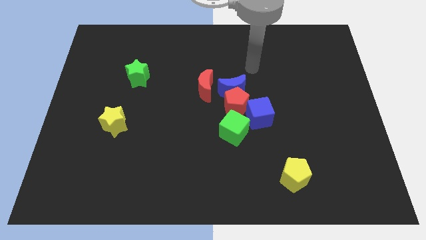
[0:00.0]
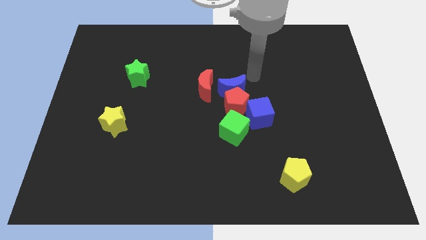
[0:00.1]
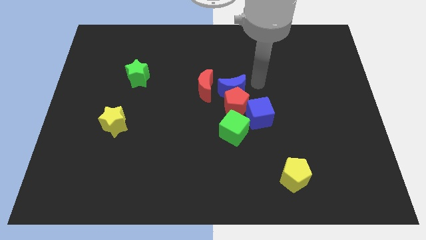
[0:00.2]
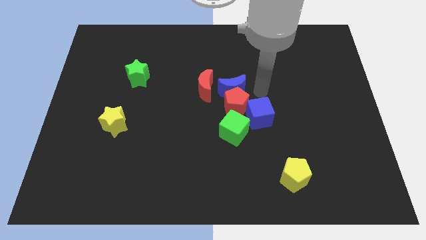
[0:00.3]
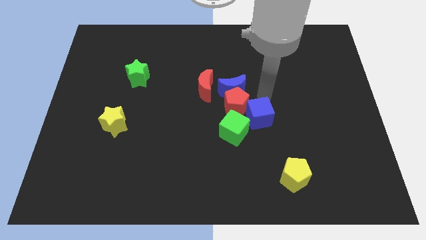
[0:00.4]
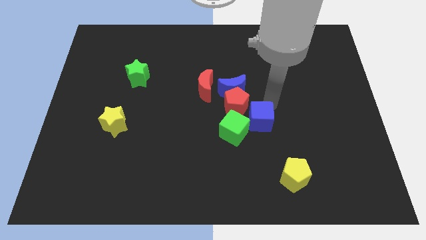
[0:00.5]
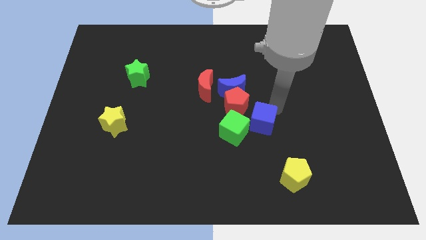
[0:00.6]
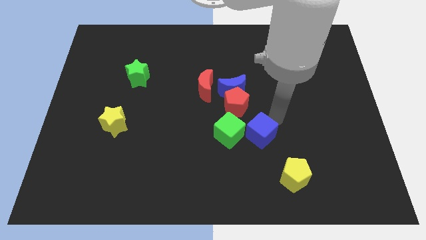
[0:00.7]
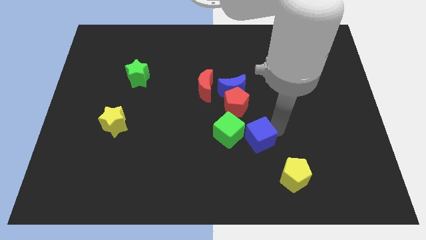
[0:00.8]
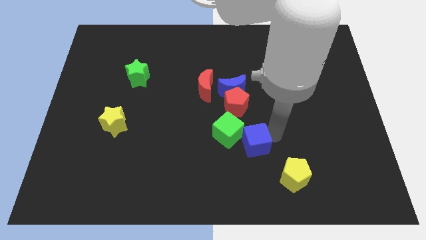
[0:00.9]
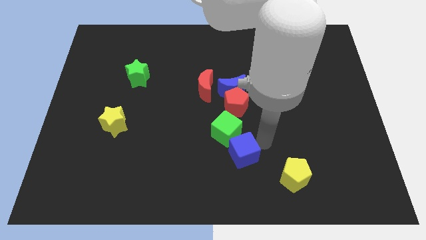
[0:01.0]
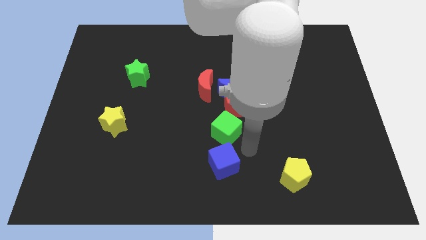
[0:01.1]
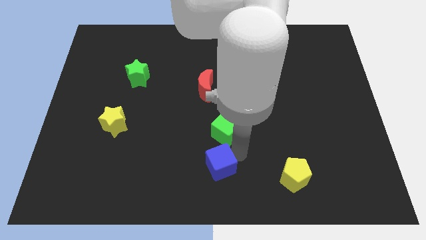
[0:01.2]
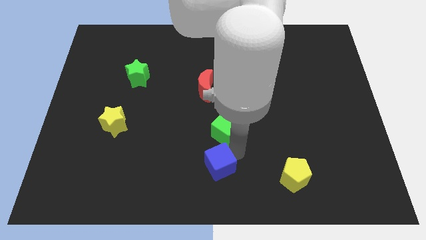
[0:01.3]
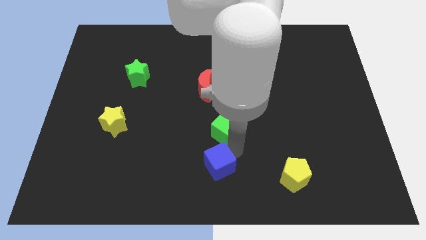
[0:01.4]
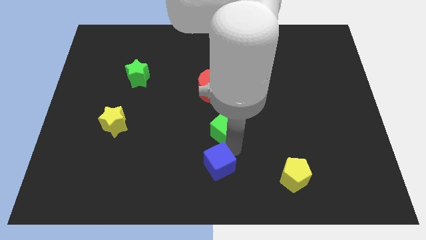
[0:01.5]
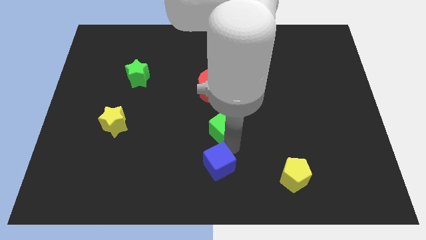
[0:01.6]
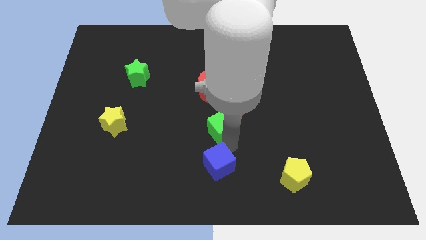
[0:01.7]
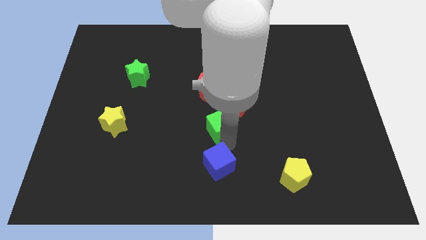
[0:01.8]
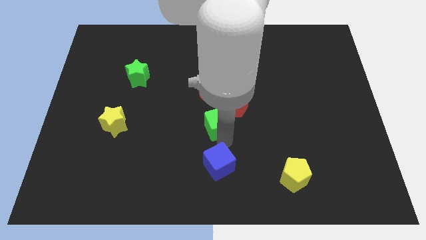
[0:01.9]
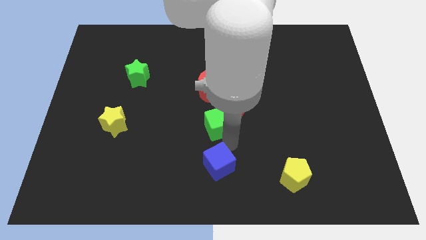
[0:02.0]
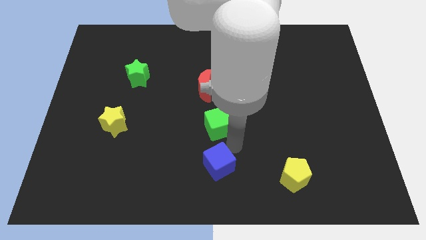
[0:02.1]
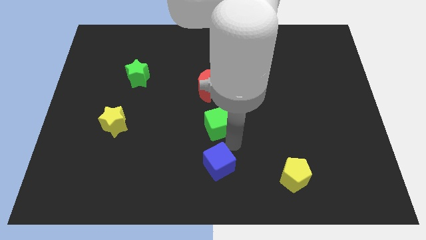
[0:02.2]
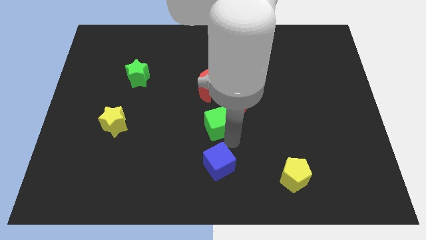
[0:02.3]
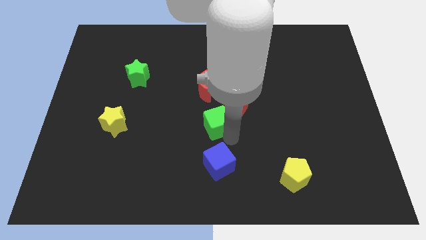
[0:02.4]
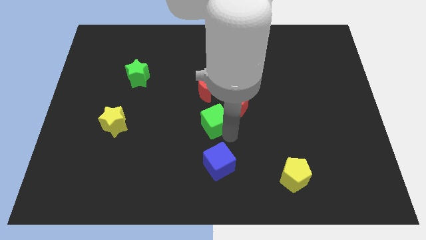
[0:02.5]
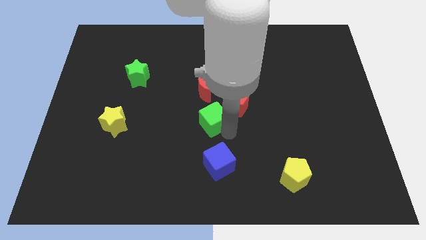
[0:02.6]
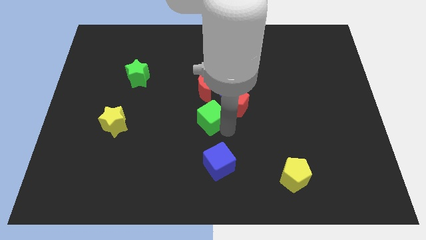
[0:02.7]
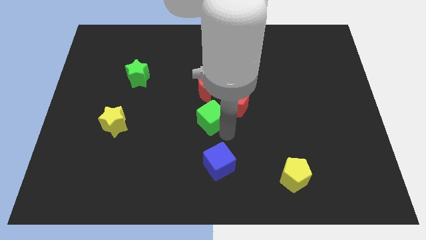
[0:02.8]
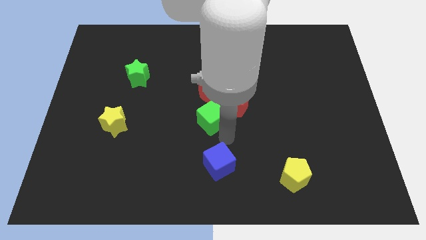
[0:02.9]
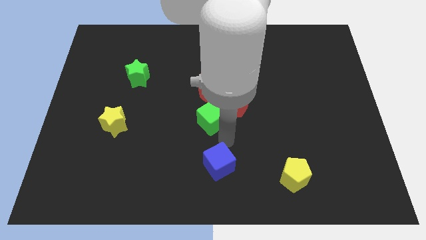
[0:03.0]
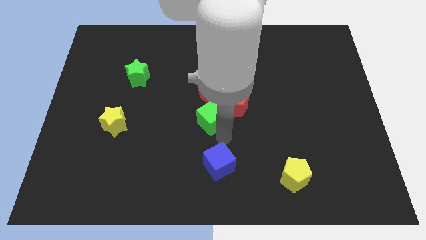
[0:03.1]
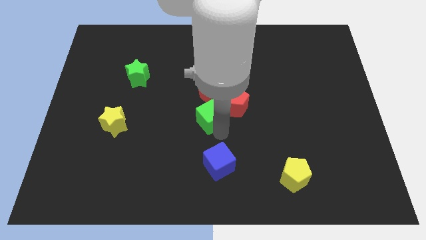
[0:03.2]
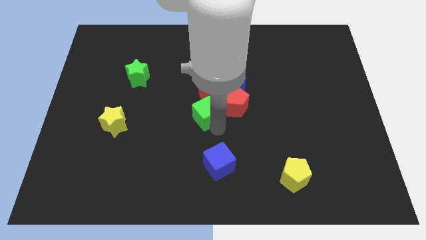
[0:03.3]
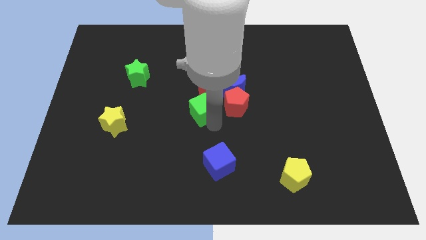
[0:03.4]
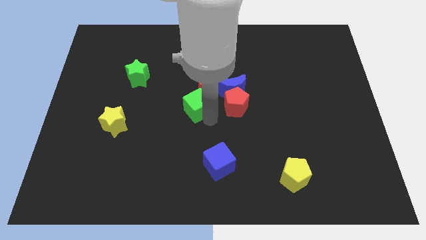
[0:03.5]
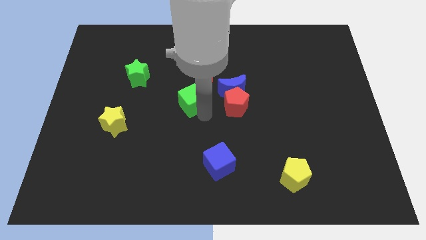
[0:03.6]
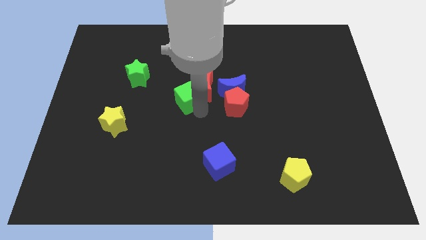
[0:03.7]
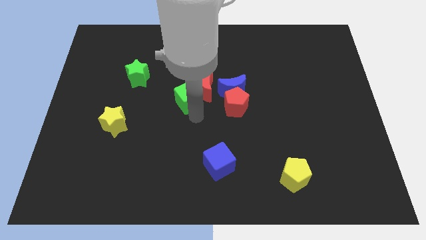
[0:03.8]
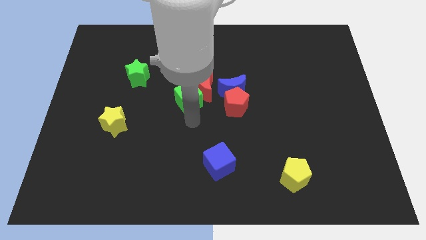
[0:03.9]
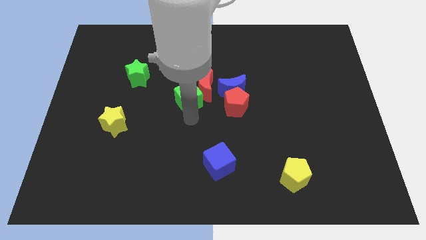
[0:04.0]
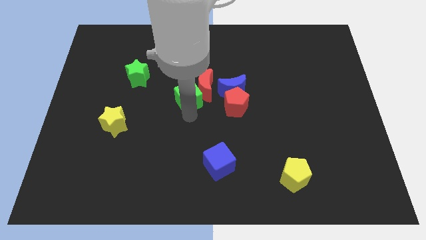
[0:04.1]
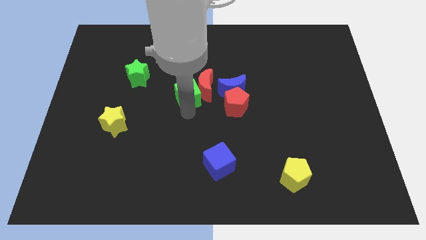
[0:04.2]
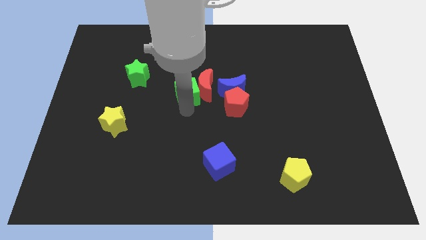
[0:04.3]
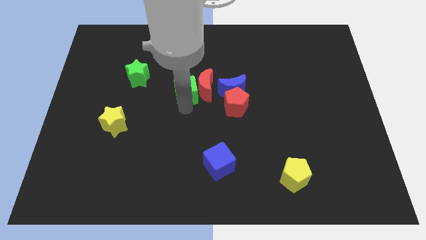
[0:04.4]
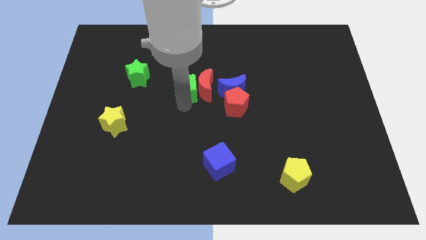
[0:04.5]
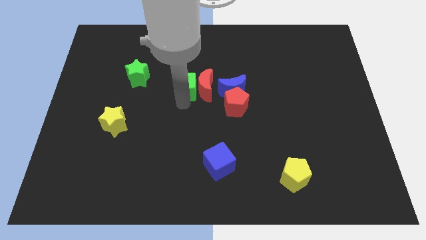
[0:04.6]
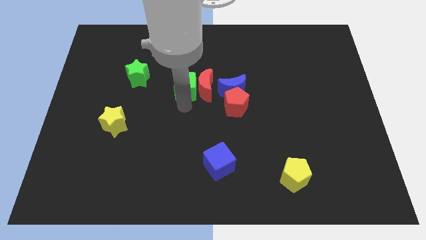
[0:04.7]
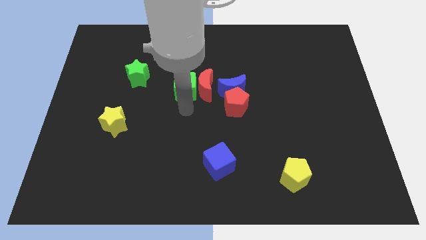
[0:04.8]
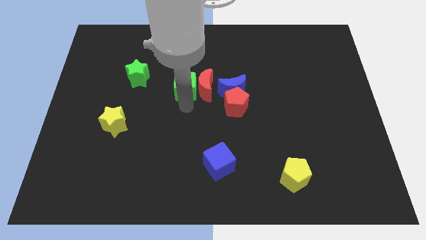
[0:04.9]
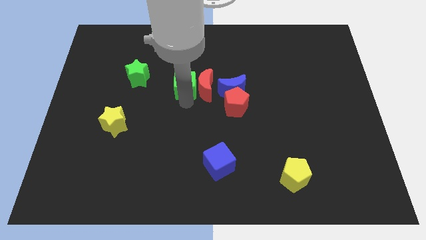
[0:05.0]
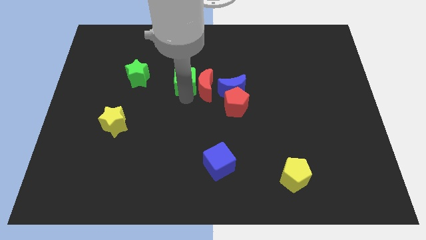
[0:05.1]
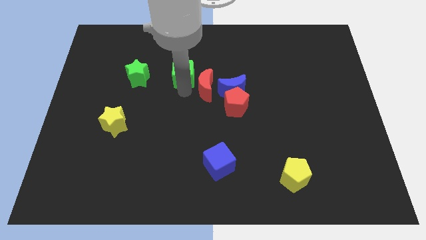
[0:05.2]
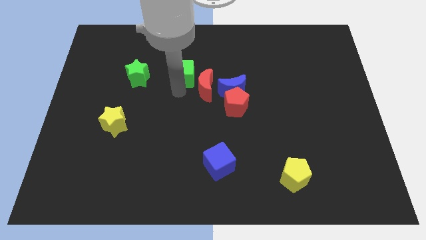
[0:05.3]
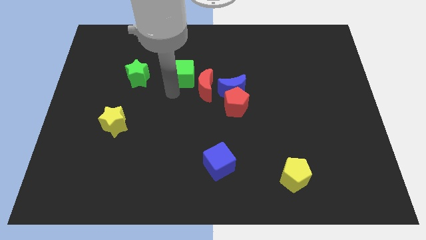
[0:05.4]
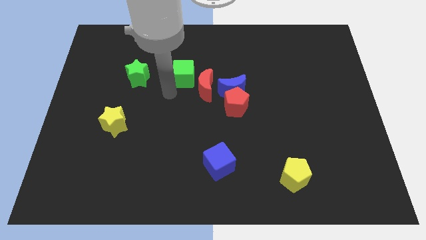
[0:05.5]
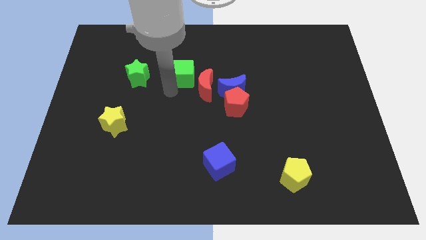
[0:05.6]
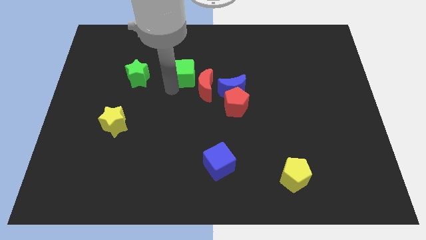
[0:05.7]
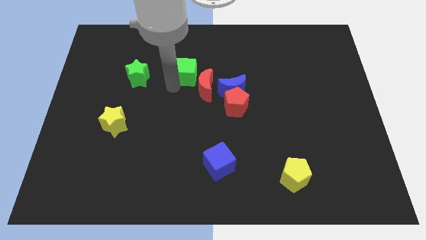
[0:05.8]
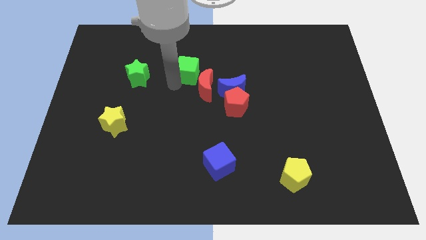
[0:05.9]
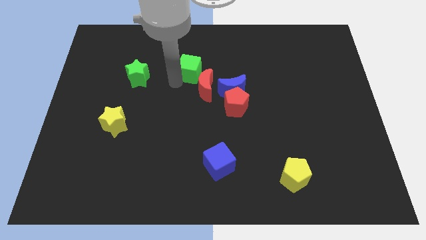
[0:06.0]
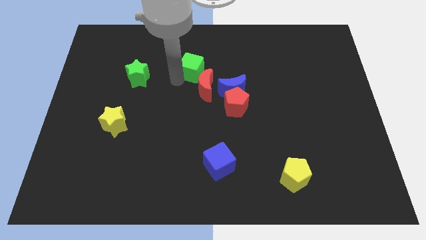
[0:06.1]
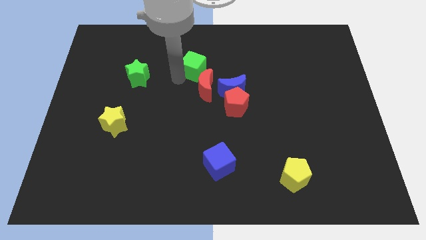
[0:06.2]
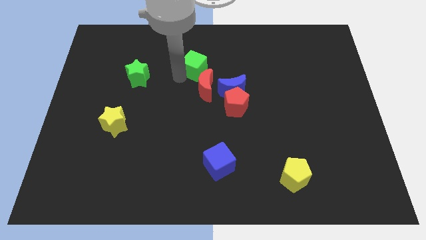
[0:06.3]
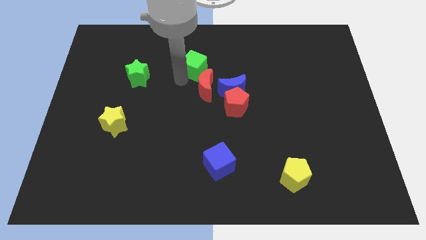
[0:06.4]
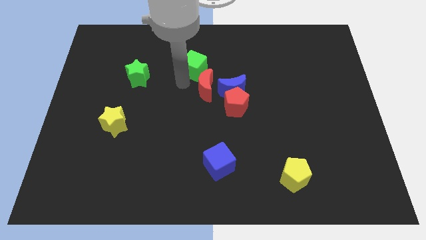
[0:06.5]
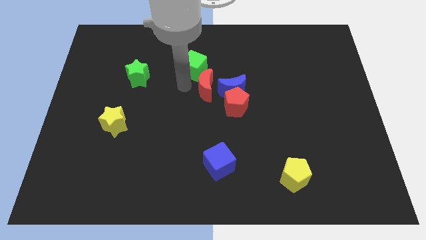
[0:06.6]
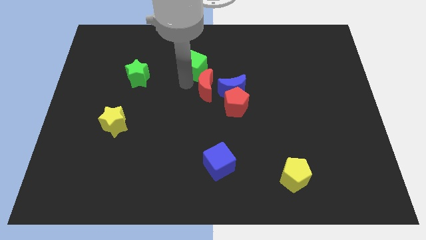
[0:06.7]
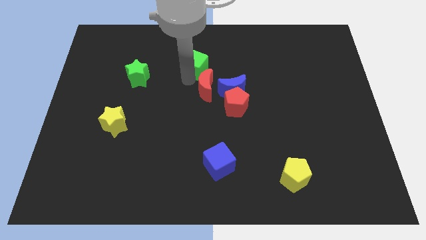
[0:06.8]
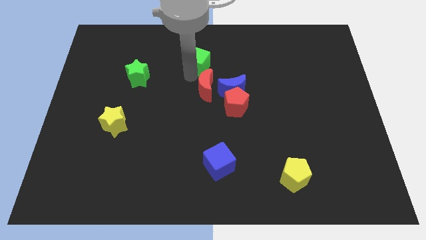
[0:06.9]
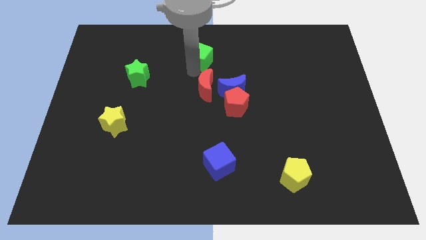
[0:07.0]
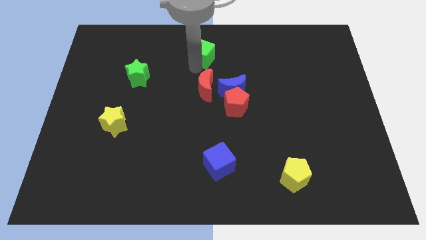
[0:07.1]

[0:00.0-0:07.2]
put the green cube to the top side
